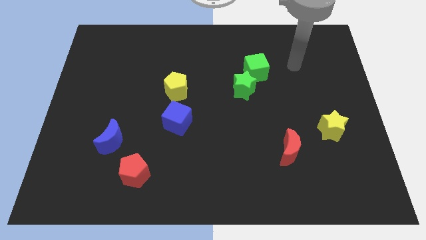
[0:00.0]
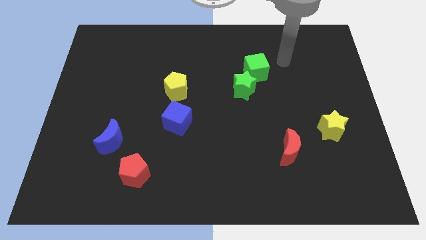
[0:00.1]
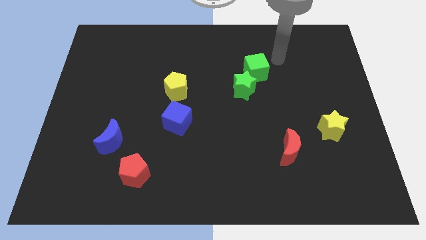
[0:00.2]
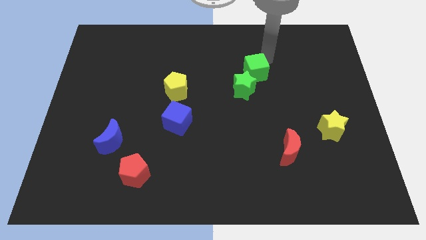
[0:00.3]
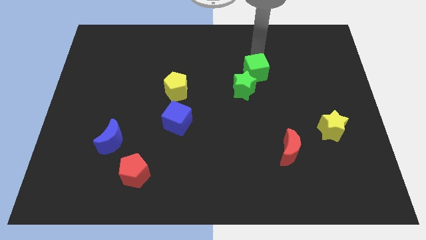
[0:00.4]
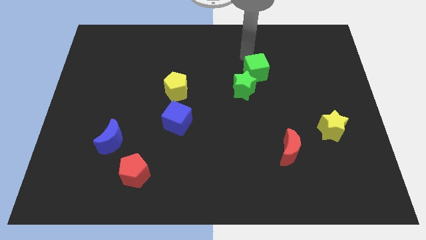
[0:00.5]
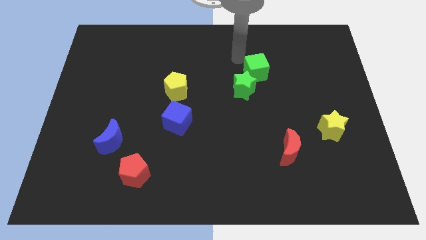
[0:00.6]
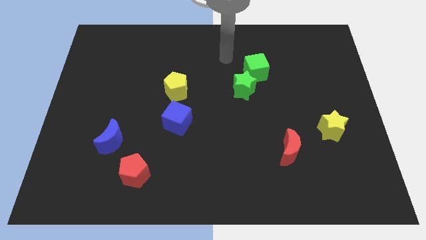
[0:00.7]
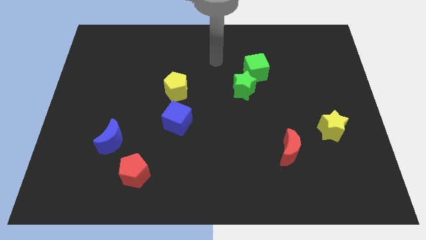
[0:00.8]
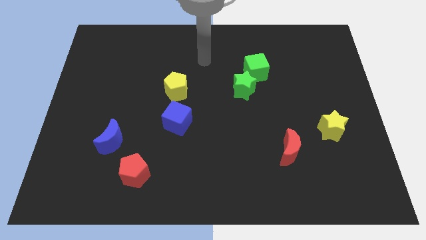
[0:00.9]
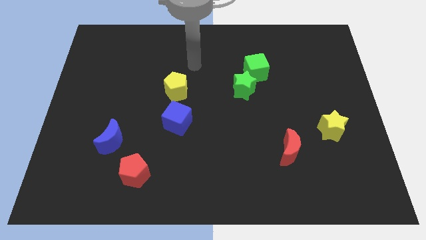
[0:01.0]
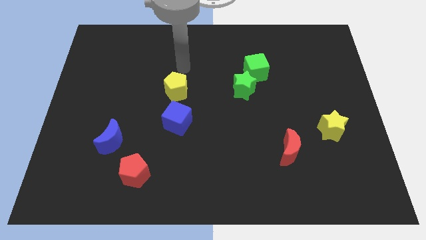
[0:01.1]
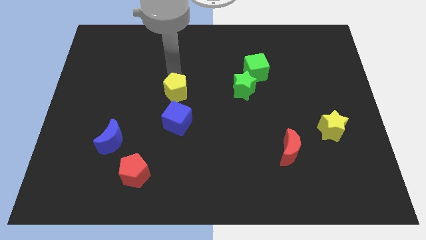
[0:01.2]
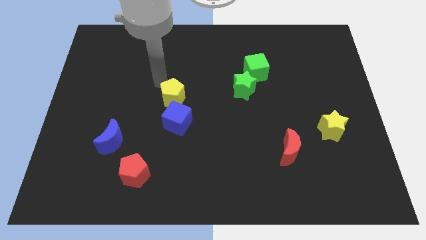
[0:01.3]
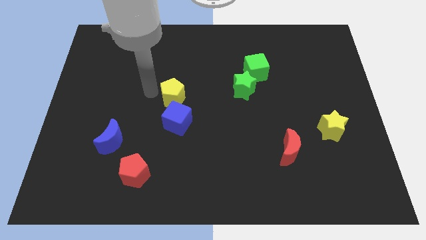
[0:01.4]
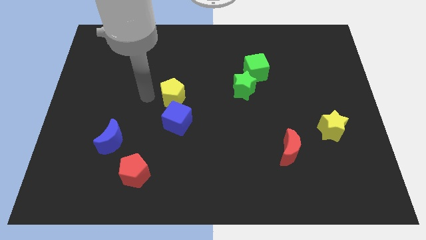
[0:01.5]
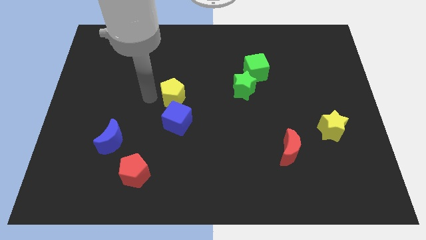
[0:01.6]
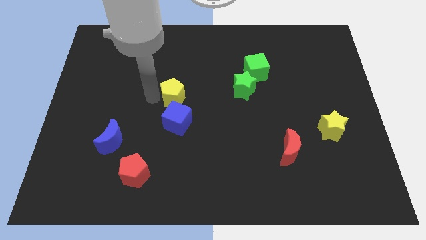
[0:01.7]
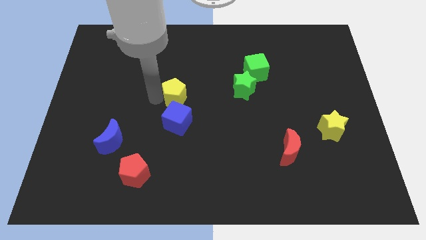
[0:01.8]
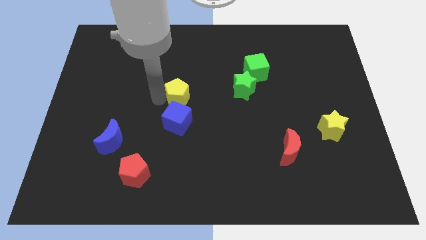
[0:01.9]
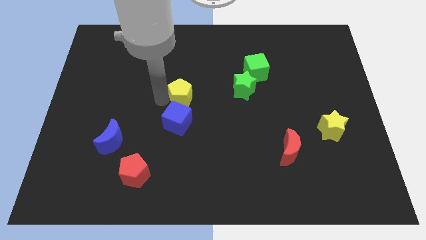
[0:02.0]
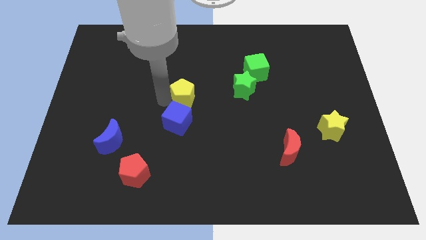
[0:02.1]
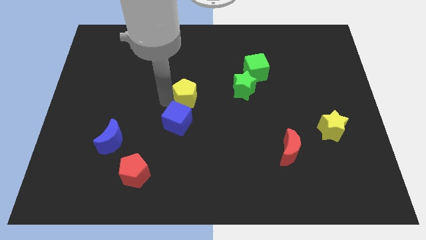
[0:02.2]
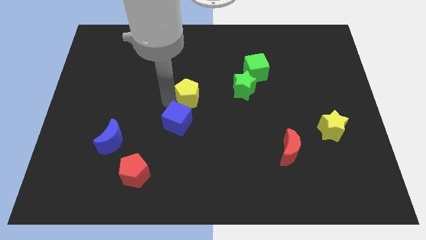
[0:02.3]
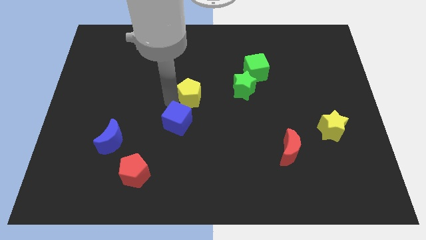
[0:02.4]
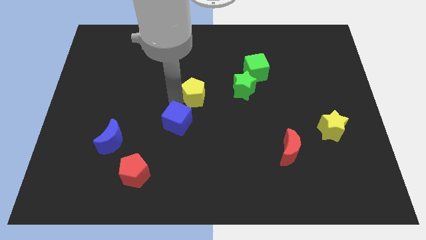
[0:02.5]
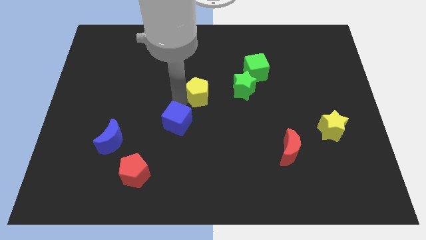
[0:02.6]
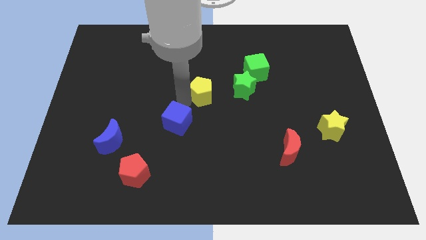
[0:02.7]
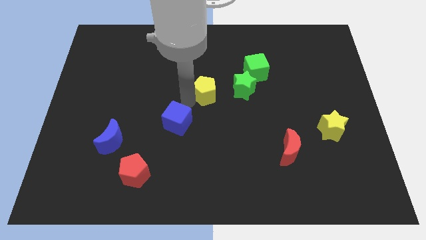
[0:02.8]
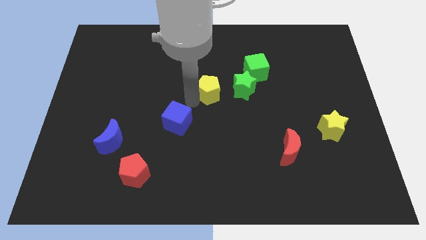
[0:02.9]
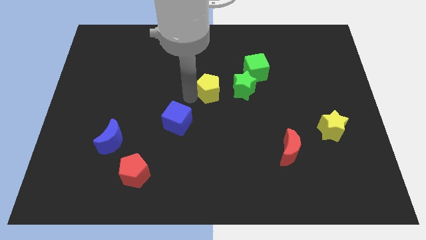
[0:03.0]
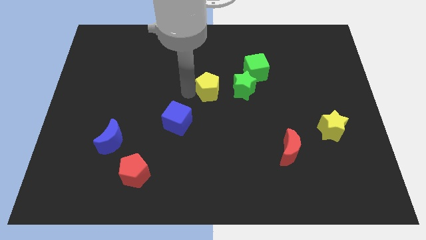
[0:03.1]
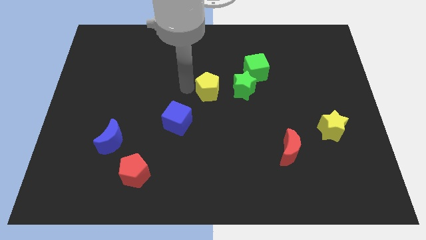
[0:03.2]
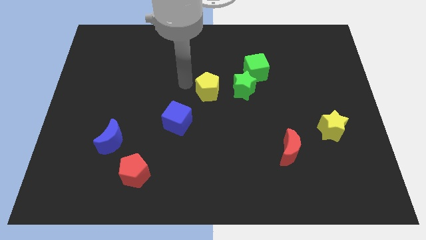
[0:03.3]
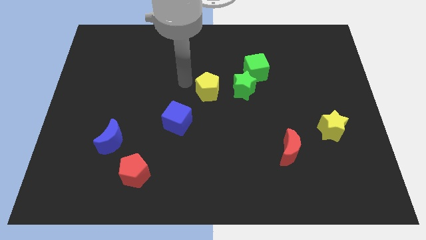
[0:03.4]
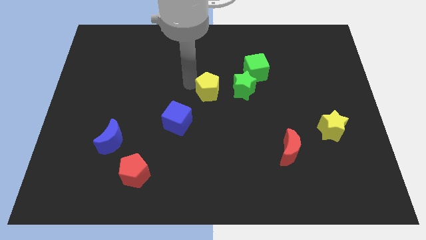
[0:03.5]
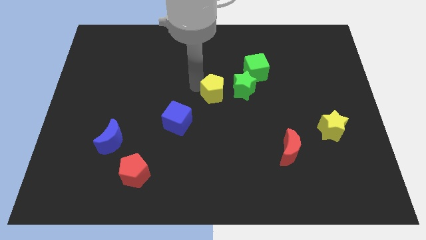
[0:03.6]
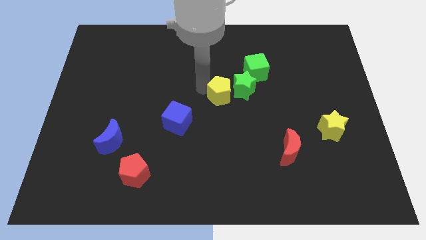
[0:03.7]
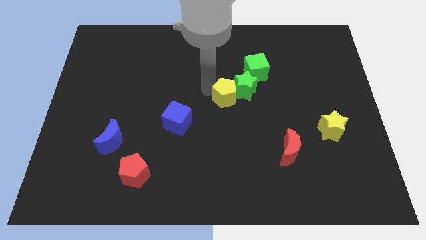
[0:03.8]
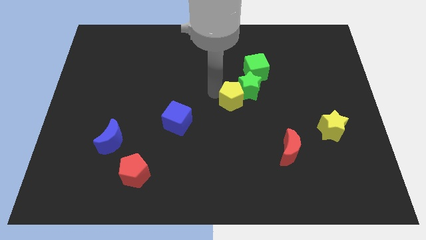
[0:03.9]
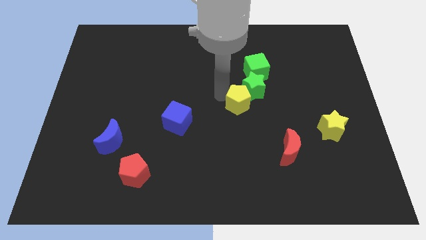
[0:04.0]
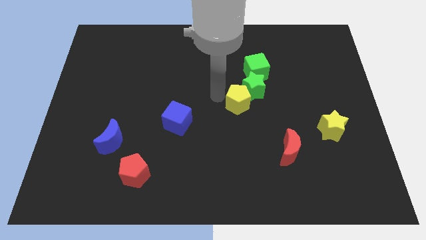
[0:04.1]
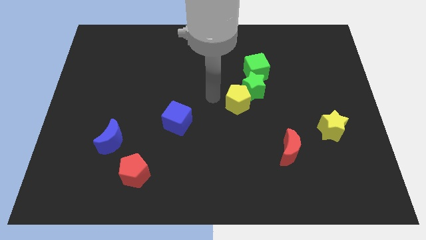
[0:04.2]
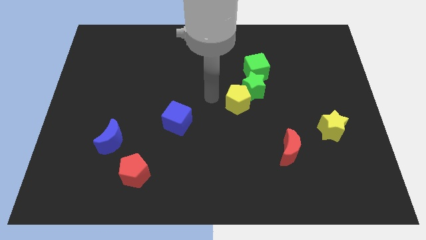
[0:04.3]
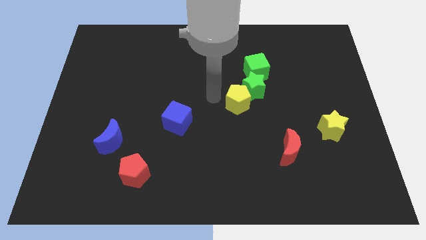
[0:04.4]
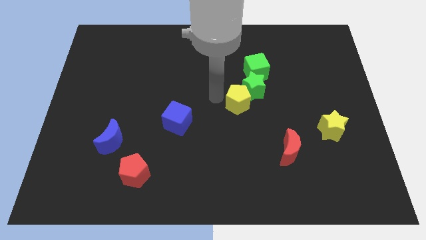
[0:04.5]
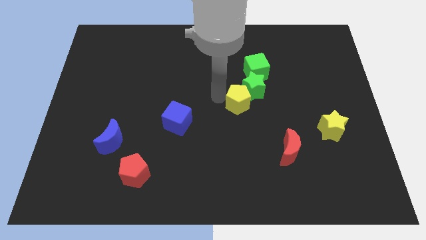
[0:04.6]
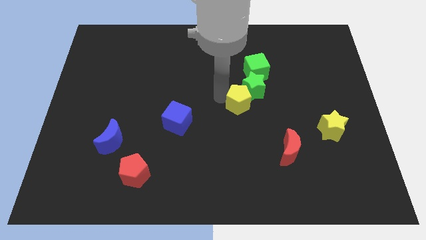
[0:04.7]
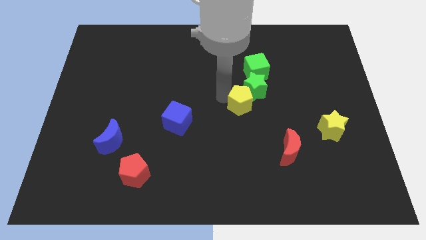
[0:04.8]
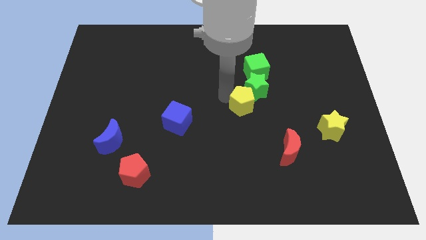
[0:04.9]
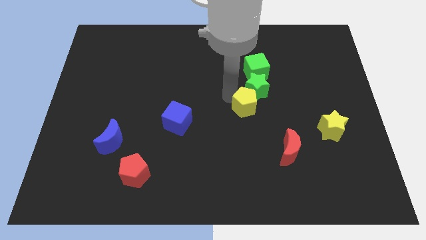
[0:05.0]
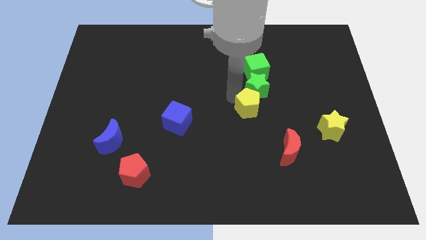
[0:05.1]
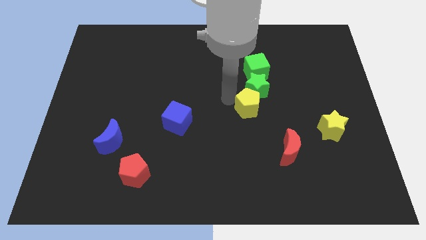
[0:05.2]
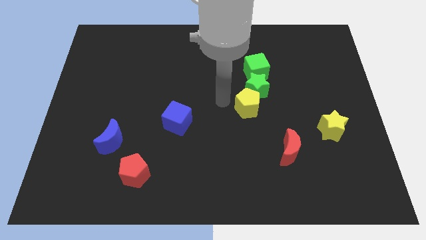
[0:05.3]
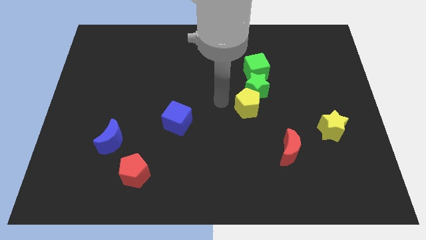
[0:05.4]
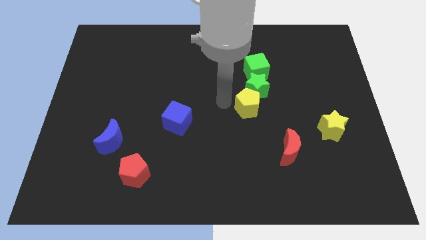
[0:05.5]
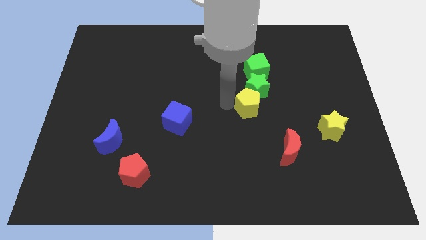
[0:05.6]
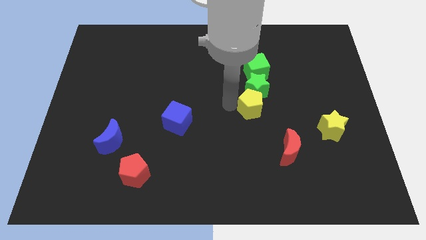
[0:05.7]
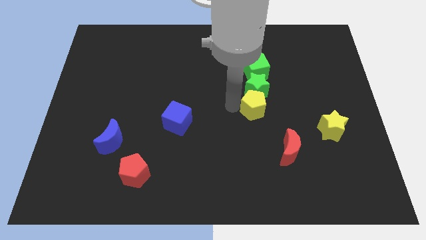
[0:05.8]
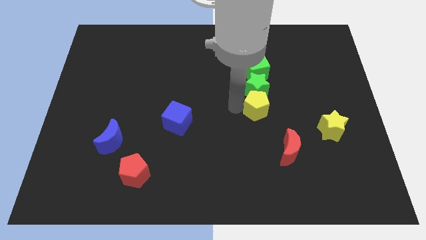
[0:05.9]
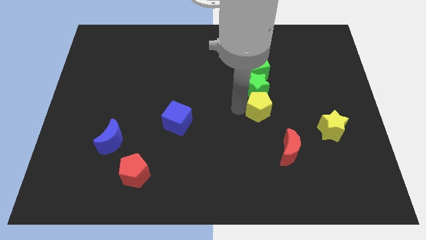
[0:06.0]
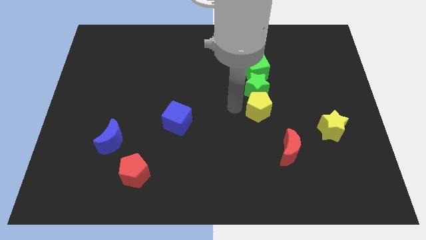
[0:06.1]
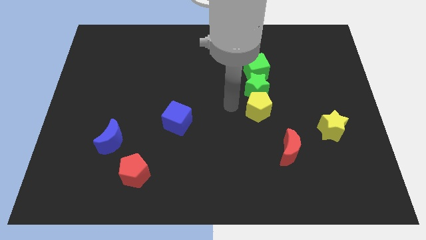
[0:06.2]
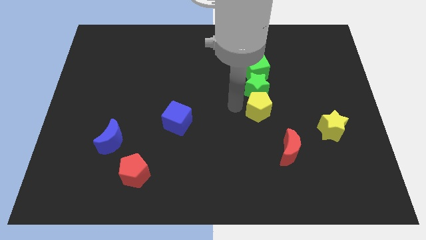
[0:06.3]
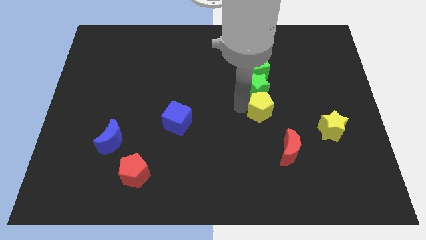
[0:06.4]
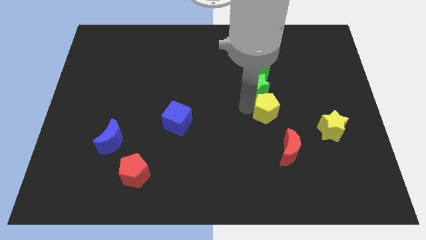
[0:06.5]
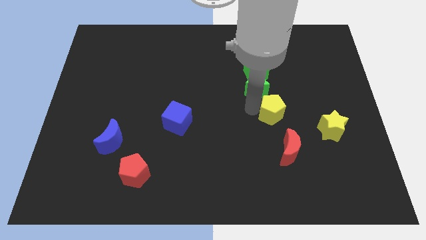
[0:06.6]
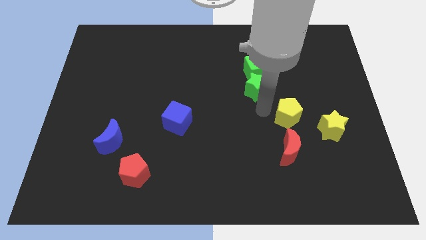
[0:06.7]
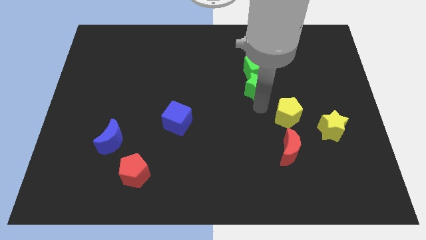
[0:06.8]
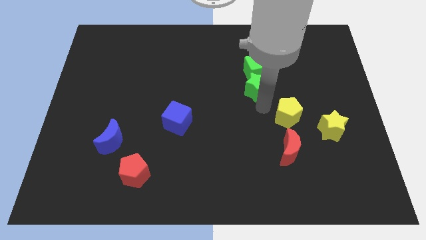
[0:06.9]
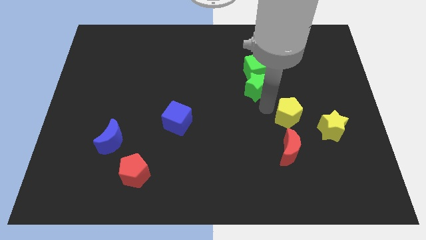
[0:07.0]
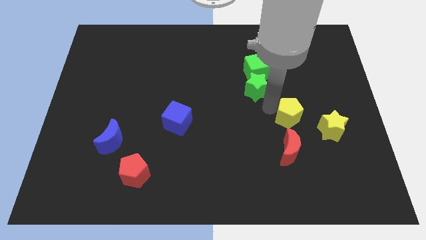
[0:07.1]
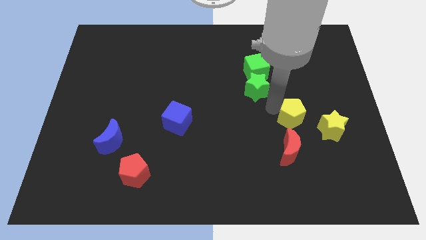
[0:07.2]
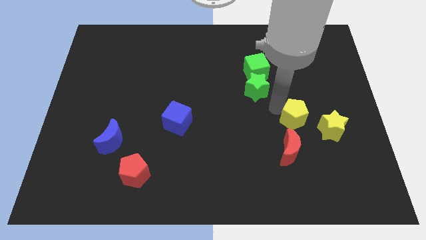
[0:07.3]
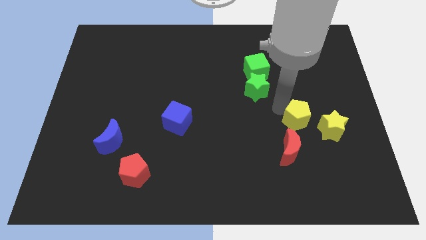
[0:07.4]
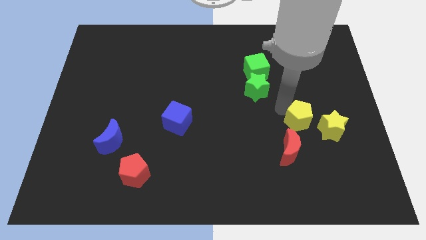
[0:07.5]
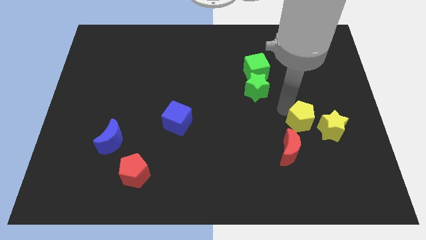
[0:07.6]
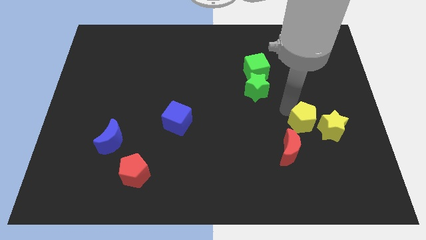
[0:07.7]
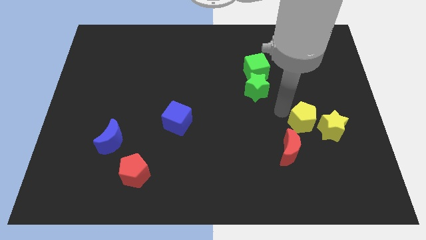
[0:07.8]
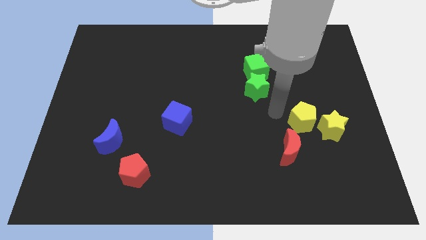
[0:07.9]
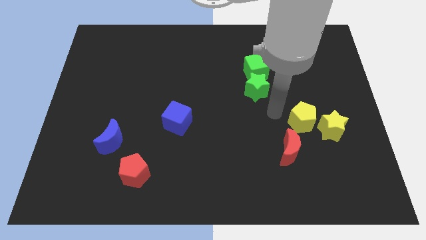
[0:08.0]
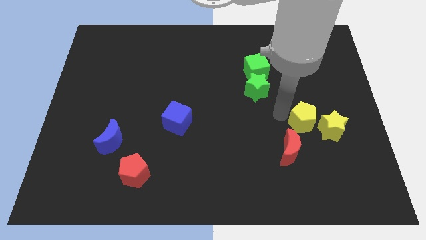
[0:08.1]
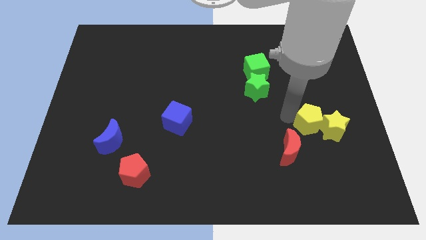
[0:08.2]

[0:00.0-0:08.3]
slide the yellow pentagon close to the yellow star
